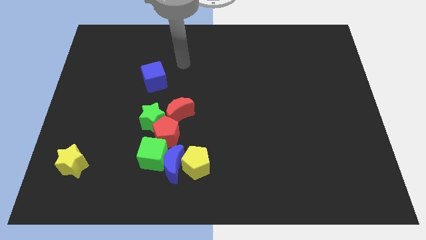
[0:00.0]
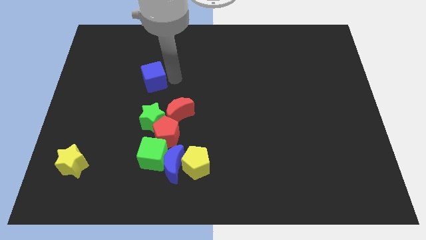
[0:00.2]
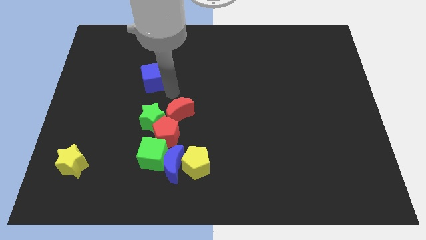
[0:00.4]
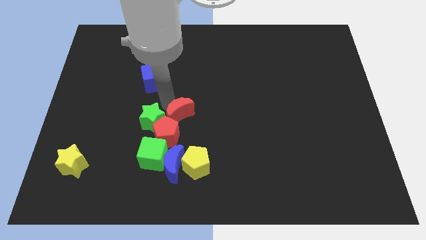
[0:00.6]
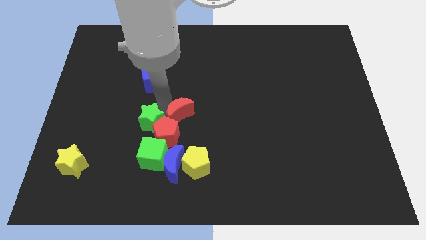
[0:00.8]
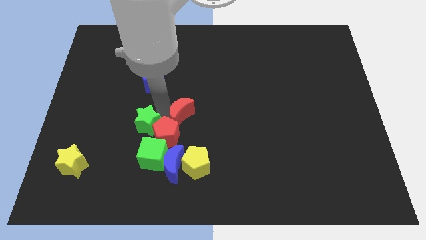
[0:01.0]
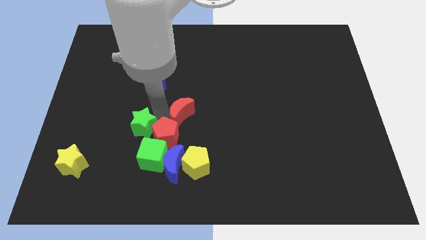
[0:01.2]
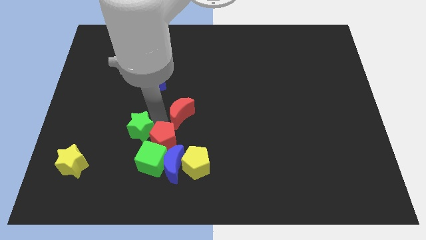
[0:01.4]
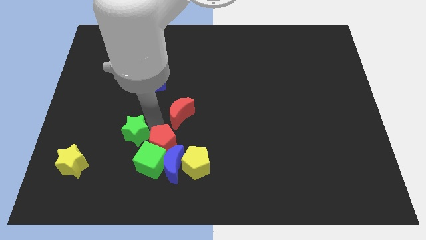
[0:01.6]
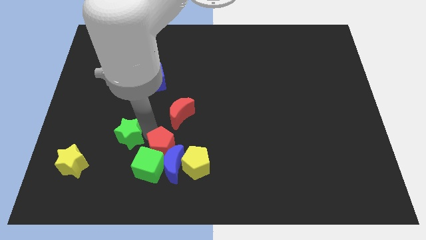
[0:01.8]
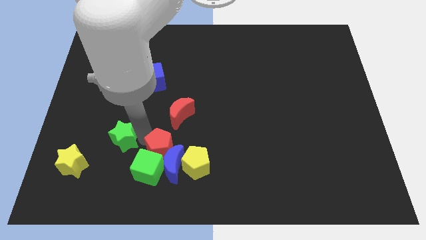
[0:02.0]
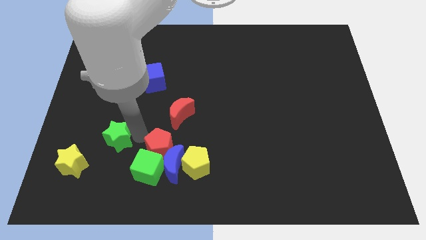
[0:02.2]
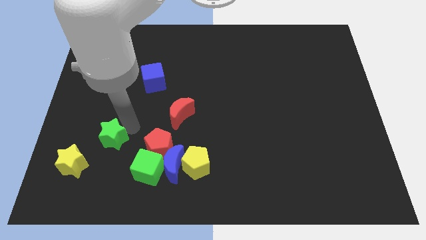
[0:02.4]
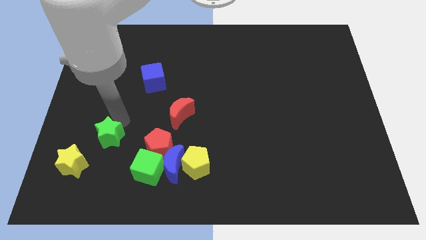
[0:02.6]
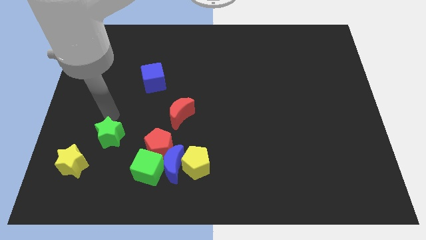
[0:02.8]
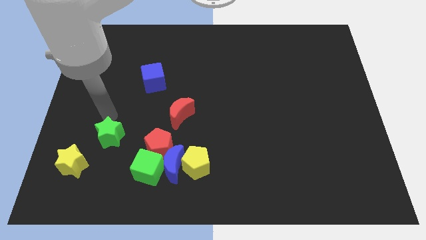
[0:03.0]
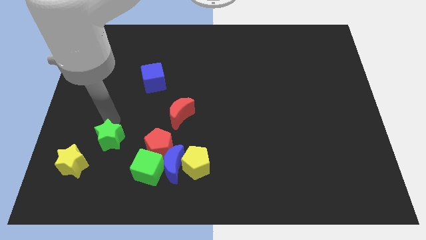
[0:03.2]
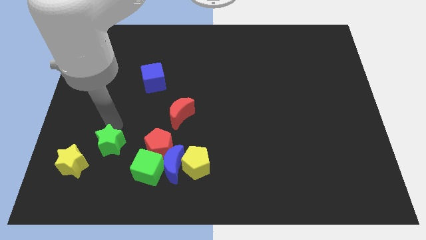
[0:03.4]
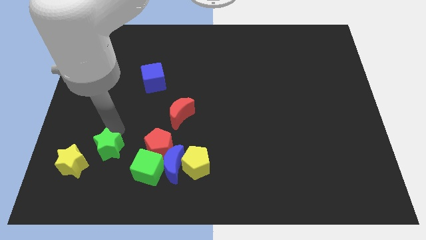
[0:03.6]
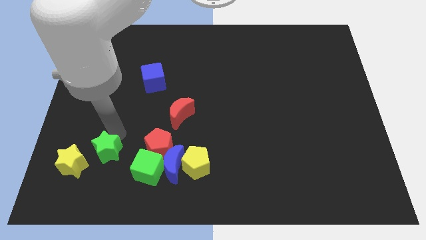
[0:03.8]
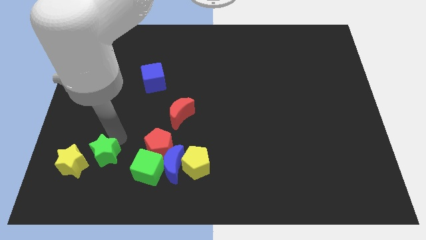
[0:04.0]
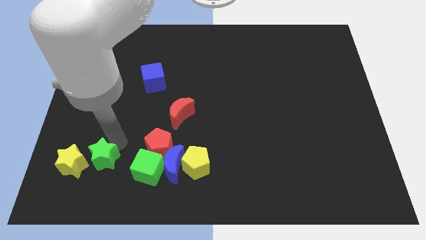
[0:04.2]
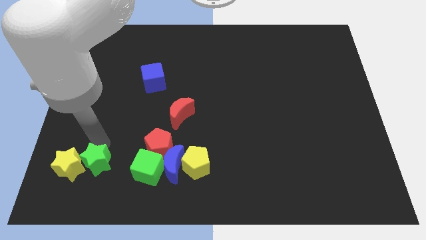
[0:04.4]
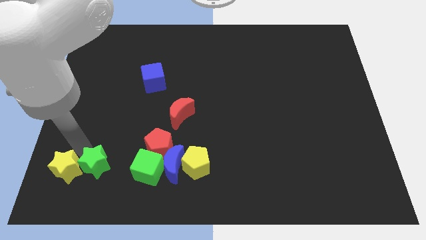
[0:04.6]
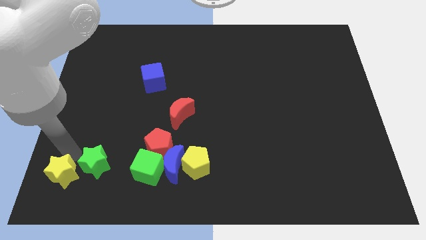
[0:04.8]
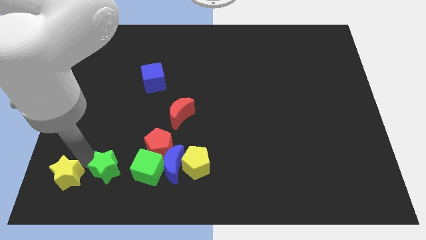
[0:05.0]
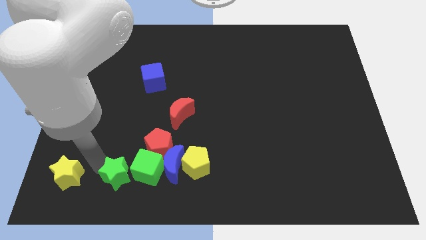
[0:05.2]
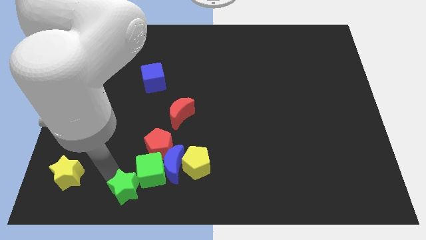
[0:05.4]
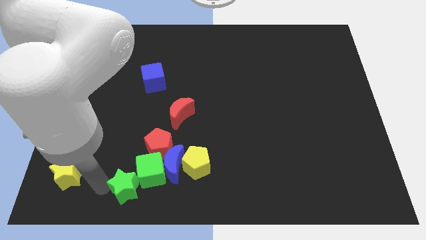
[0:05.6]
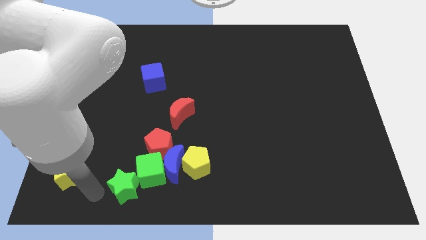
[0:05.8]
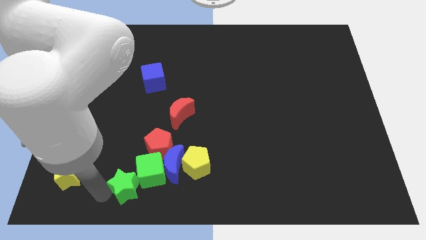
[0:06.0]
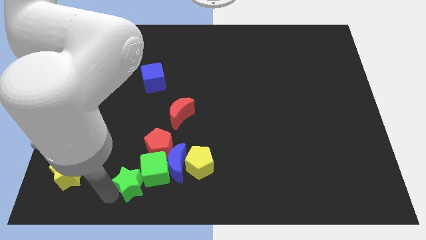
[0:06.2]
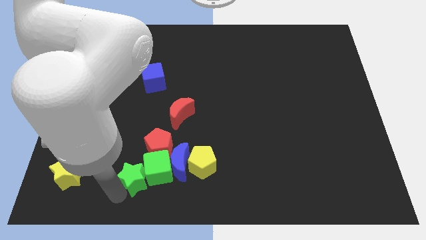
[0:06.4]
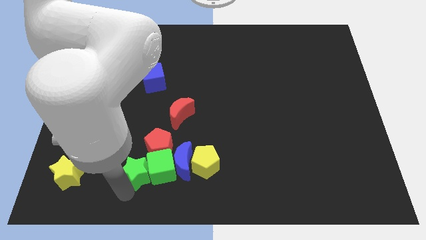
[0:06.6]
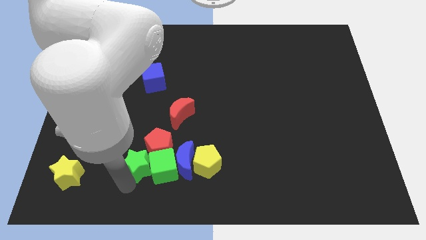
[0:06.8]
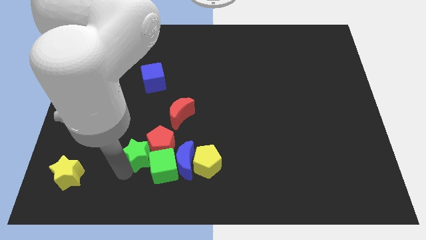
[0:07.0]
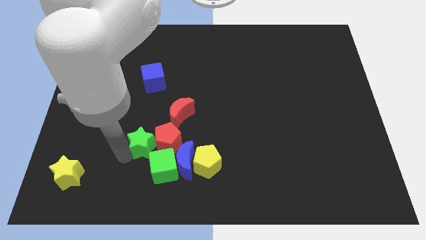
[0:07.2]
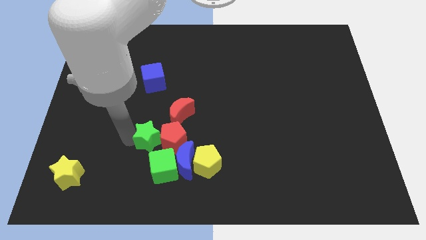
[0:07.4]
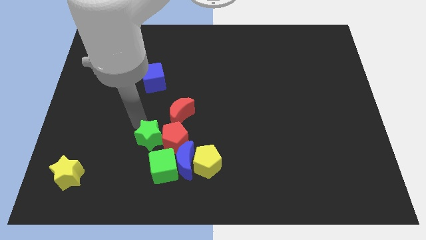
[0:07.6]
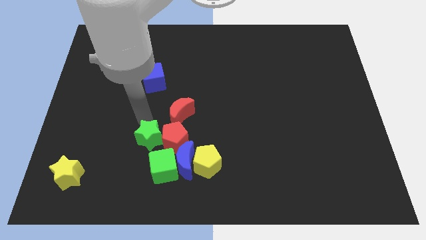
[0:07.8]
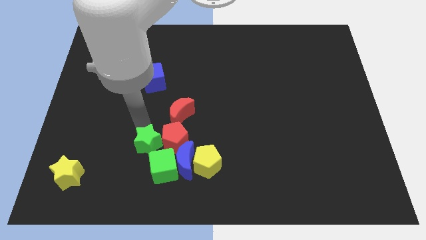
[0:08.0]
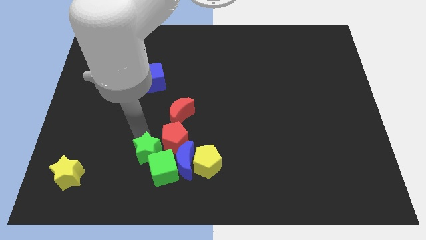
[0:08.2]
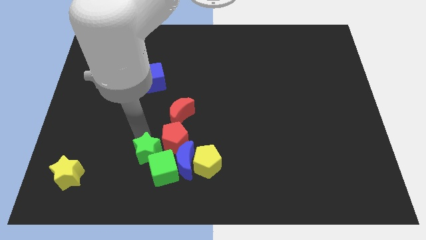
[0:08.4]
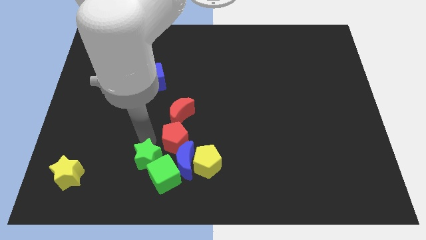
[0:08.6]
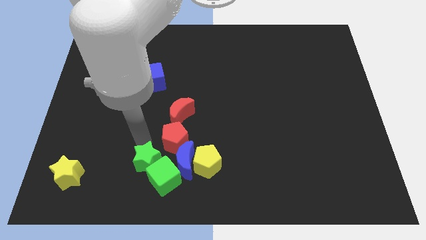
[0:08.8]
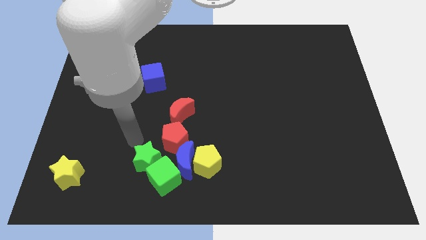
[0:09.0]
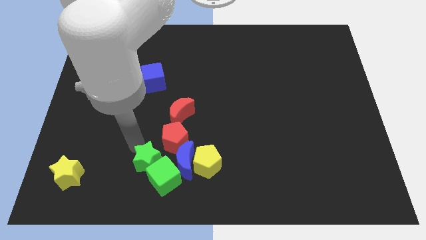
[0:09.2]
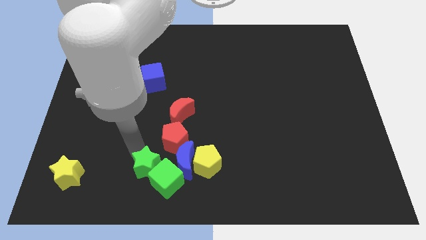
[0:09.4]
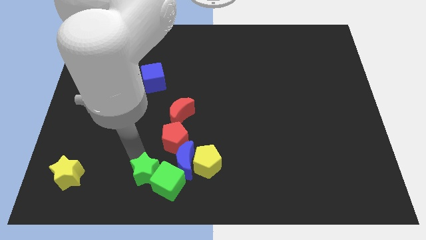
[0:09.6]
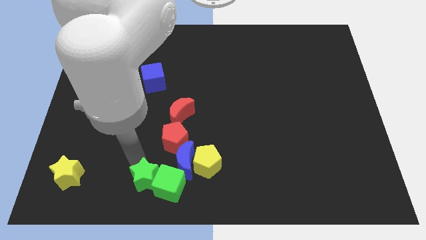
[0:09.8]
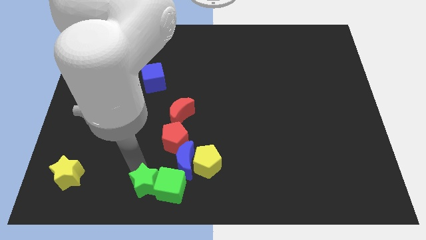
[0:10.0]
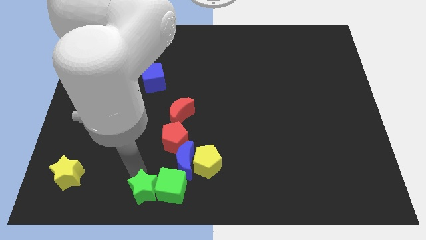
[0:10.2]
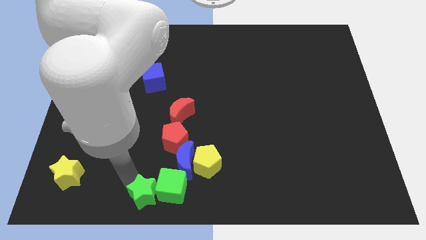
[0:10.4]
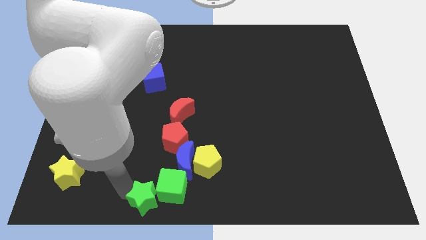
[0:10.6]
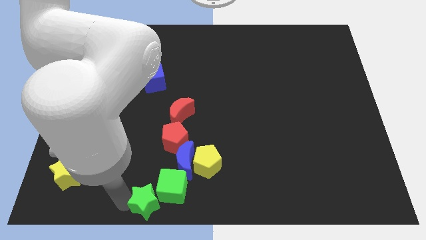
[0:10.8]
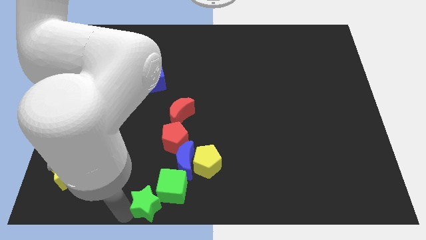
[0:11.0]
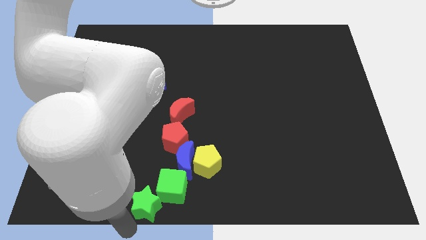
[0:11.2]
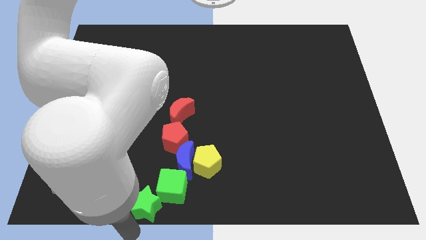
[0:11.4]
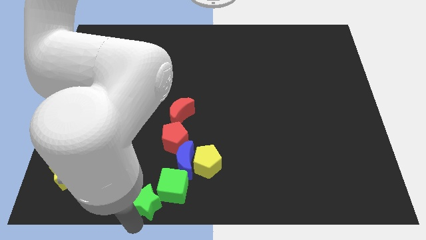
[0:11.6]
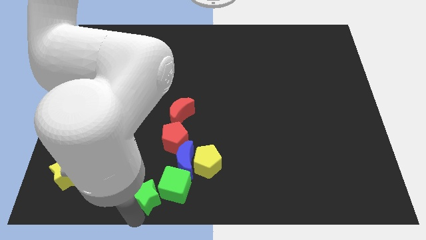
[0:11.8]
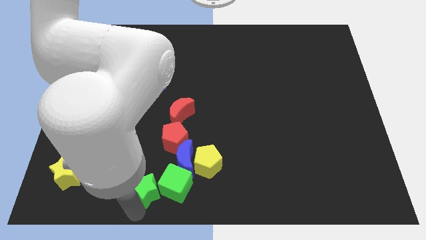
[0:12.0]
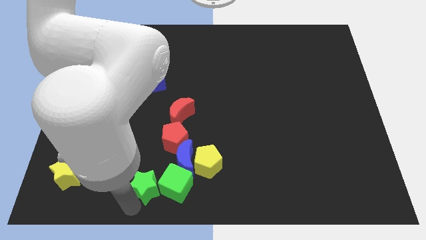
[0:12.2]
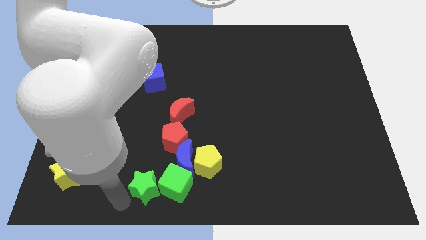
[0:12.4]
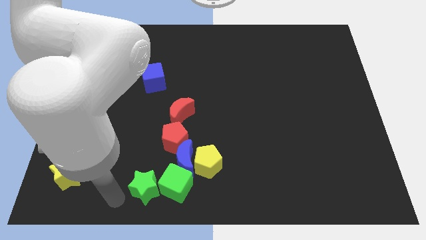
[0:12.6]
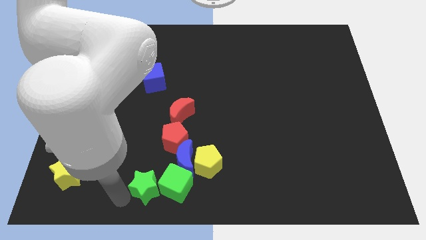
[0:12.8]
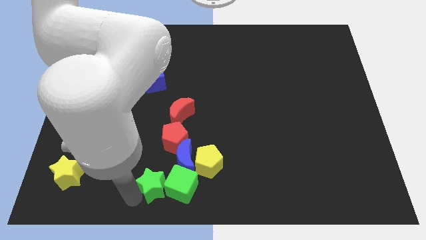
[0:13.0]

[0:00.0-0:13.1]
slide the green star diagonally downwards and to the right a little bit

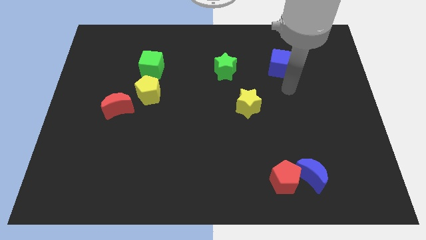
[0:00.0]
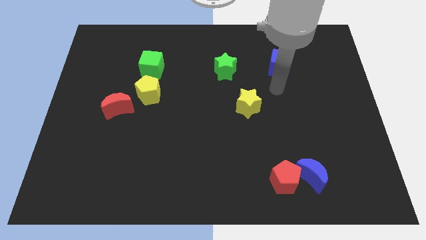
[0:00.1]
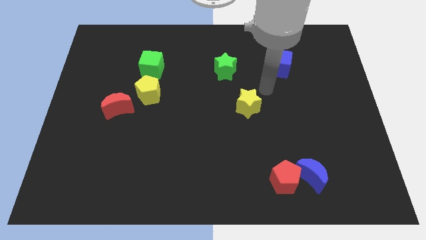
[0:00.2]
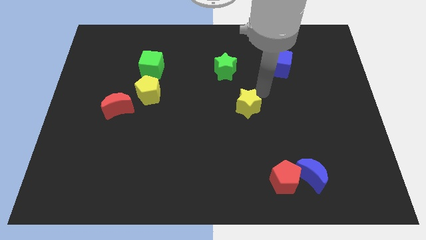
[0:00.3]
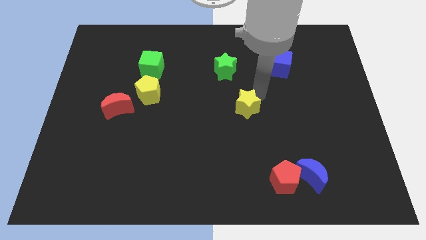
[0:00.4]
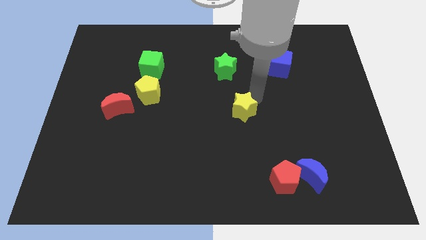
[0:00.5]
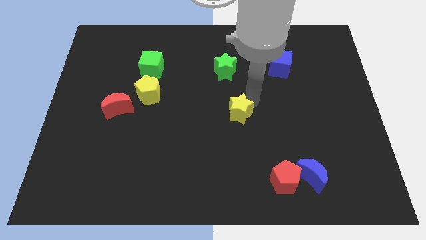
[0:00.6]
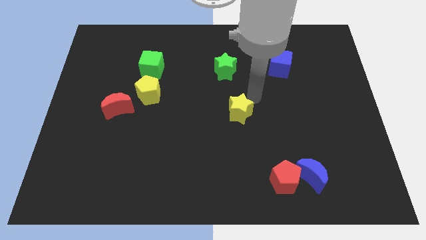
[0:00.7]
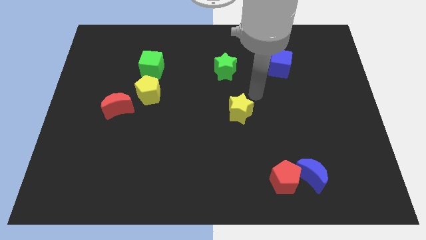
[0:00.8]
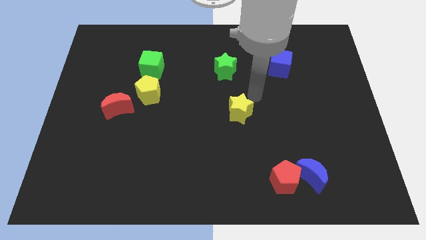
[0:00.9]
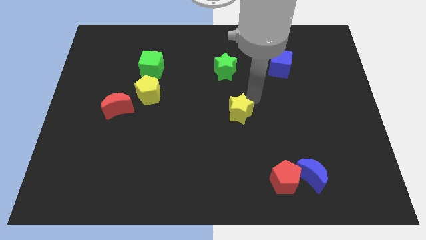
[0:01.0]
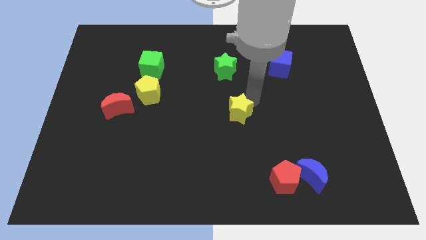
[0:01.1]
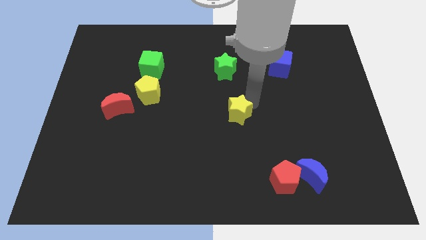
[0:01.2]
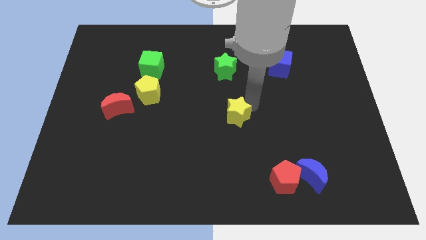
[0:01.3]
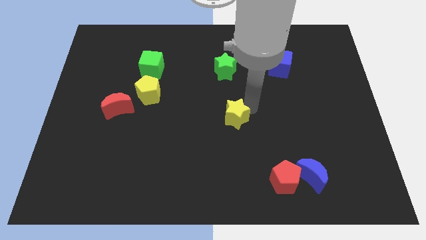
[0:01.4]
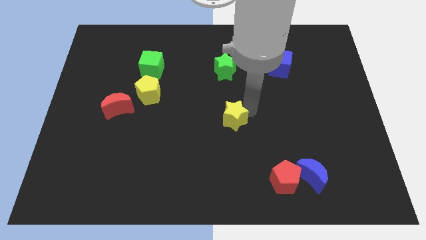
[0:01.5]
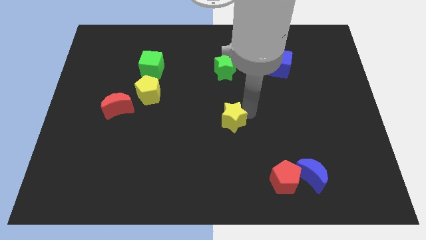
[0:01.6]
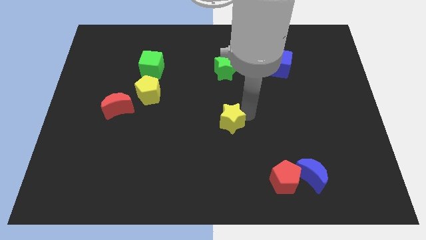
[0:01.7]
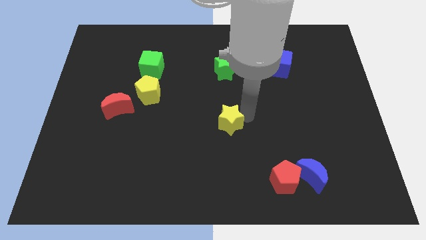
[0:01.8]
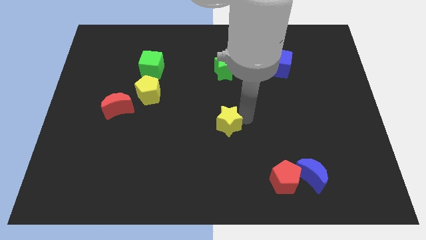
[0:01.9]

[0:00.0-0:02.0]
slightly slide the yellow star downwards and to the left diagonally
